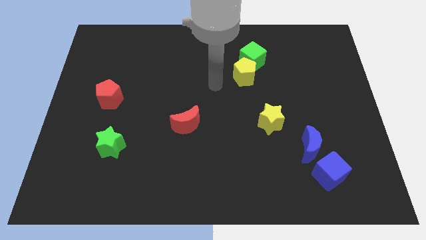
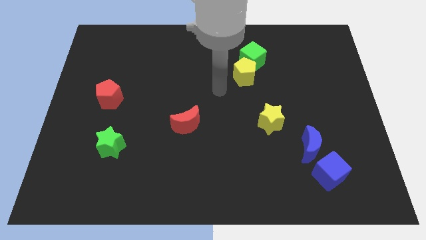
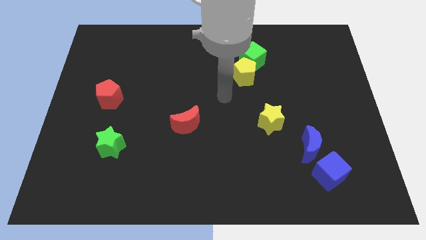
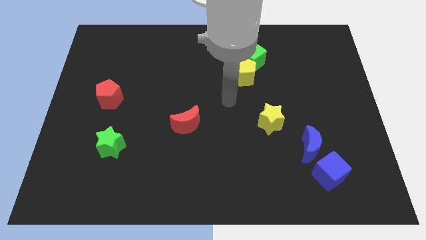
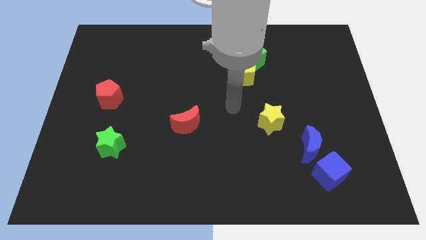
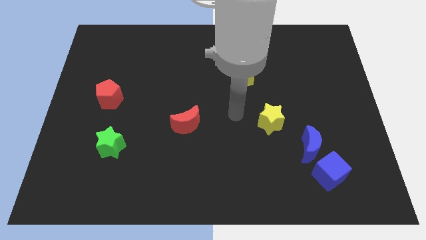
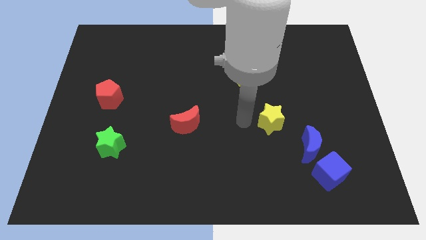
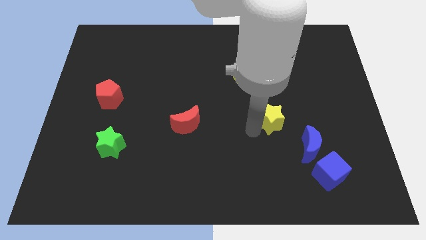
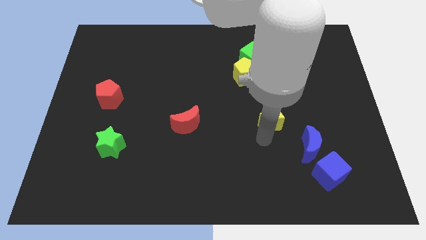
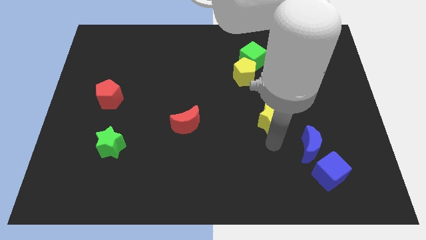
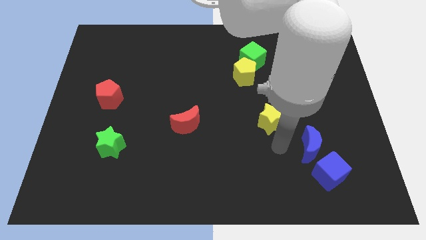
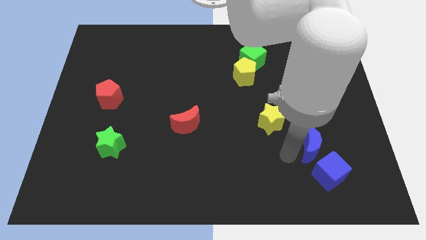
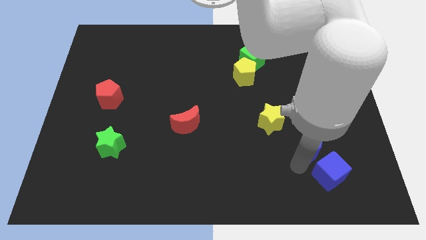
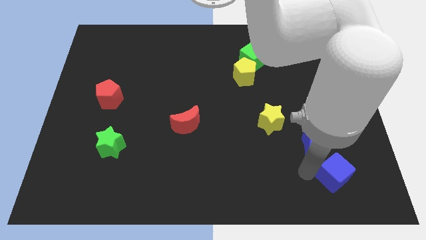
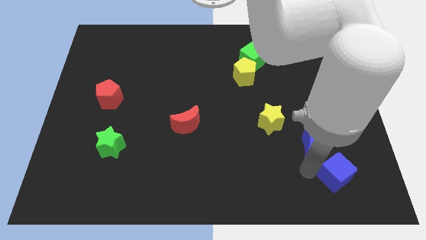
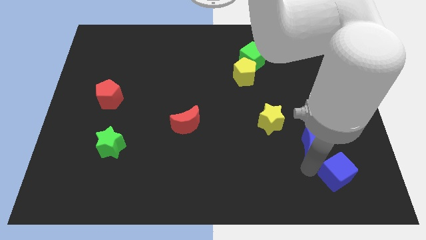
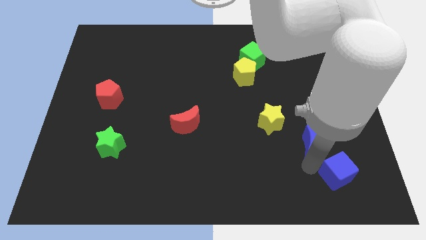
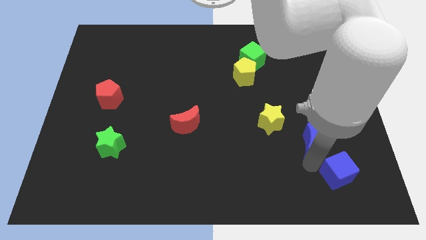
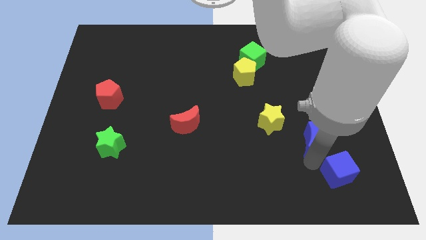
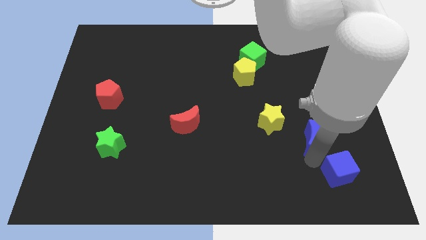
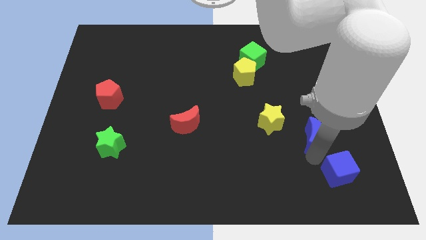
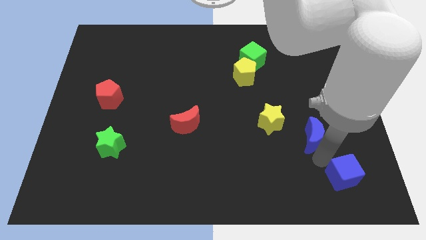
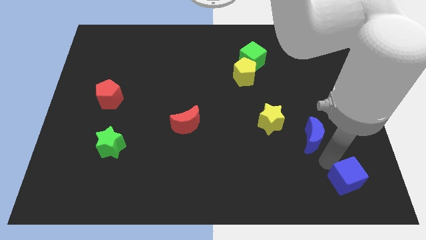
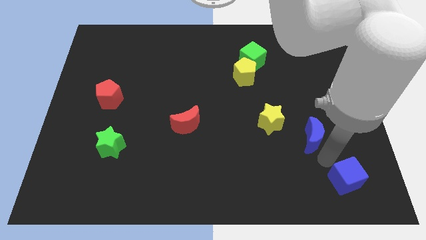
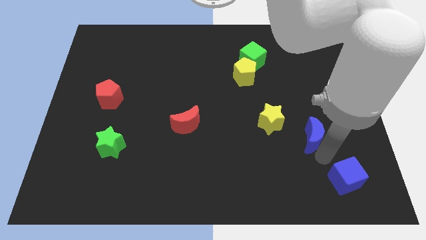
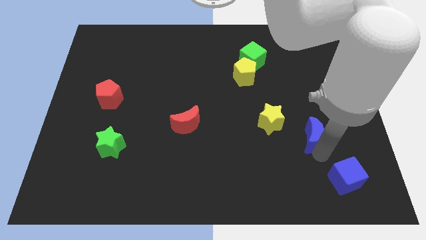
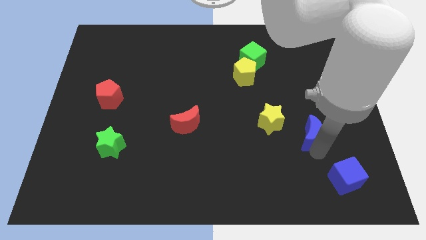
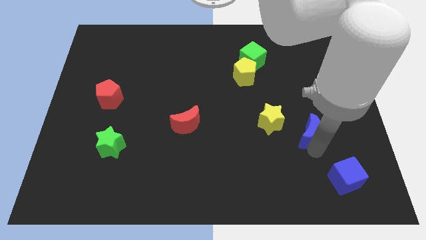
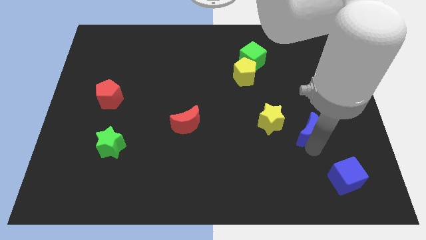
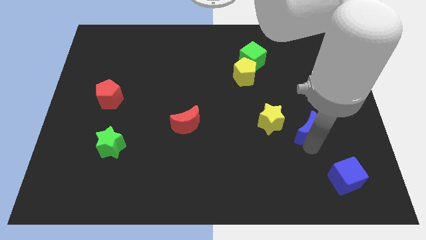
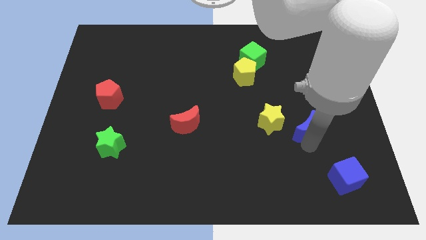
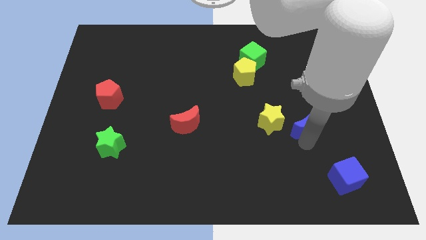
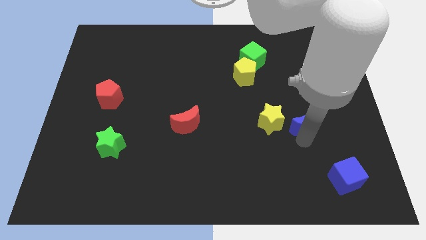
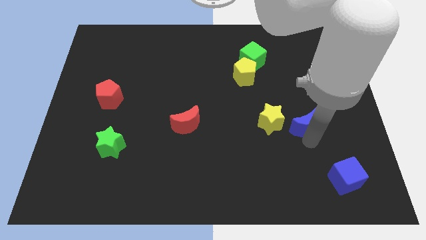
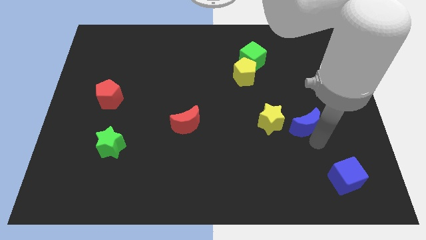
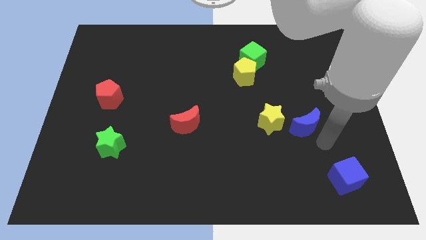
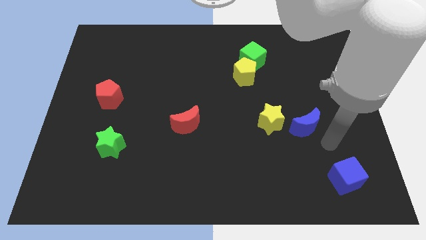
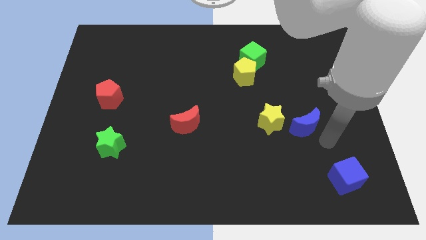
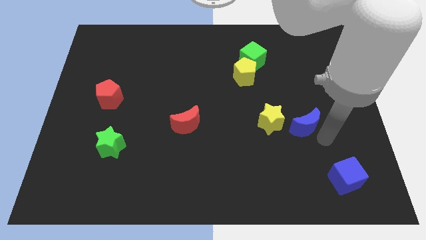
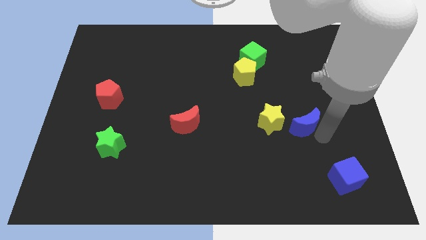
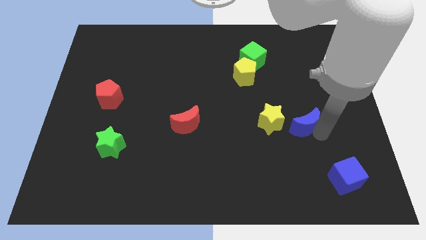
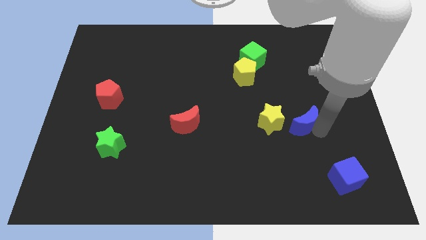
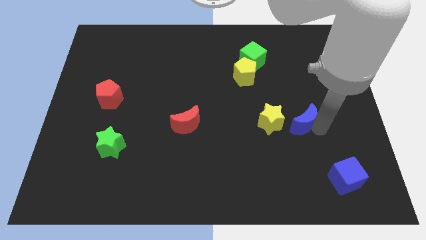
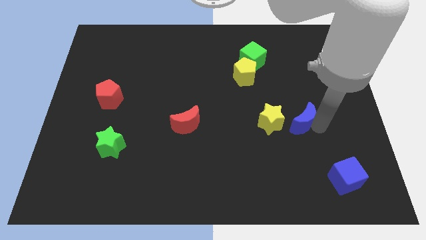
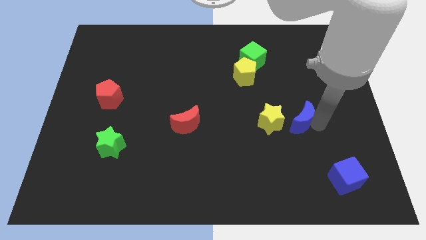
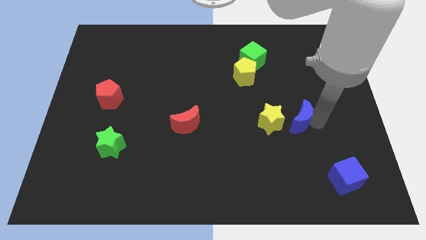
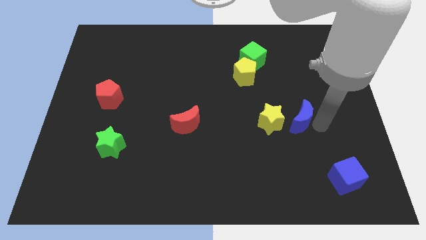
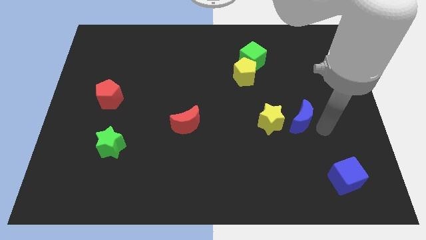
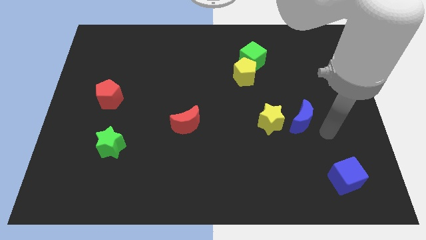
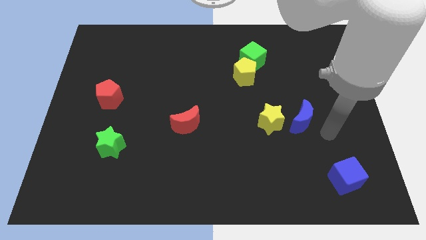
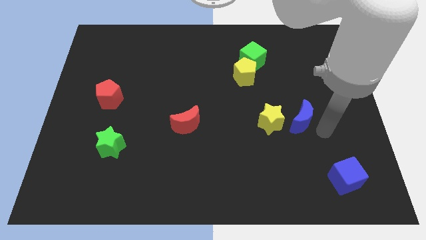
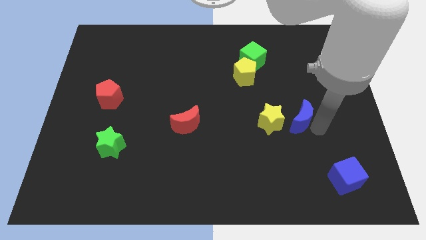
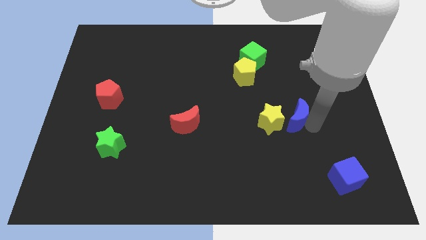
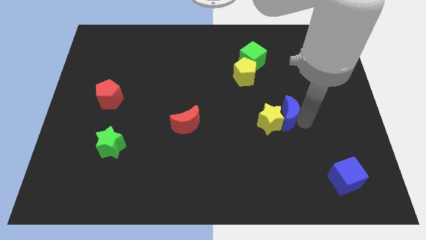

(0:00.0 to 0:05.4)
push the blue moon slightly diagonally up and to the left

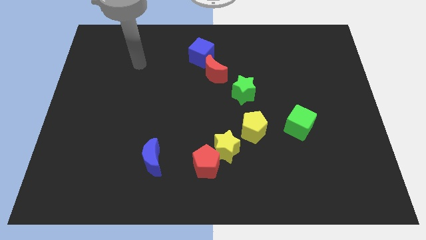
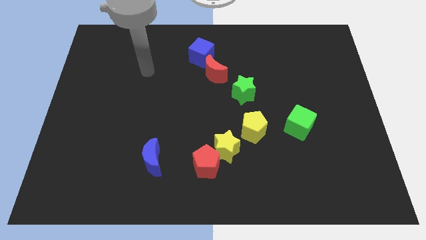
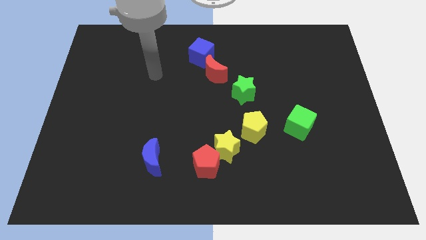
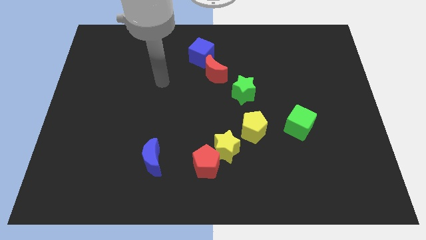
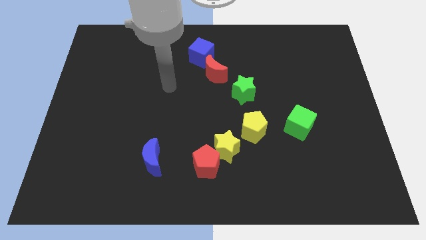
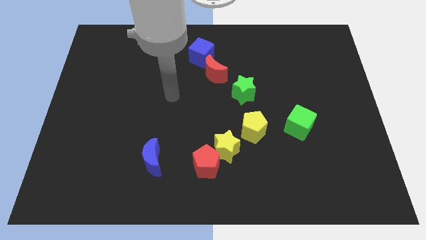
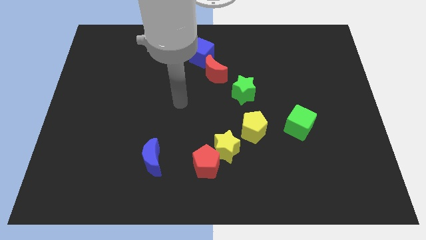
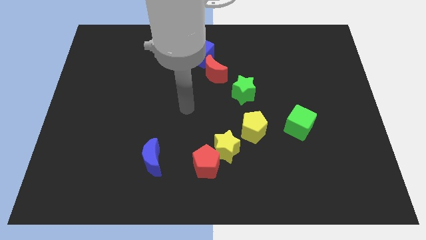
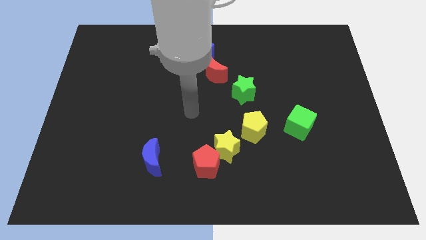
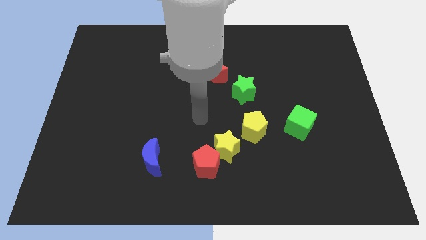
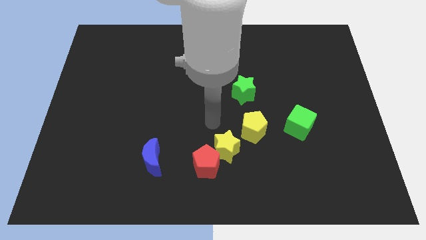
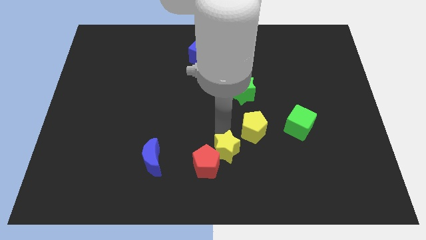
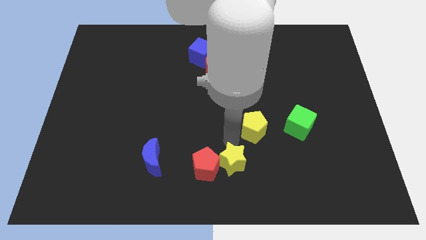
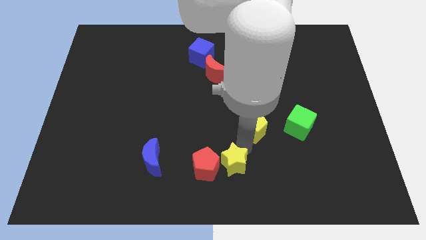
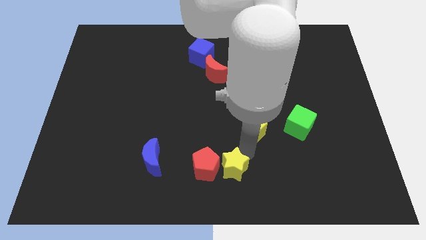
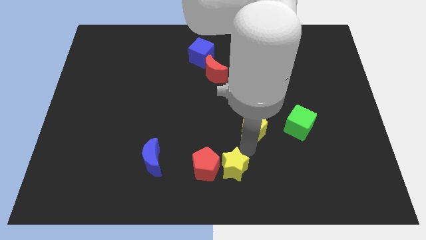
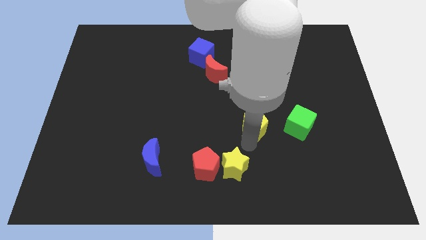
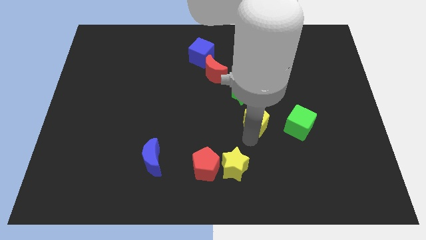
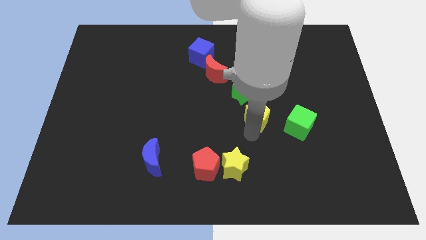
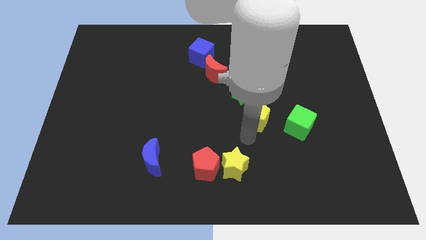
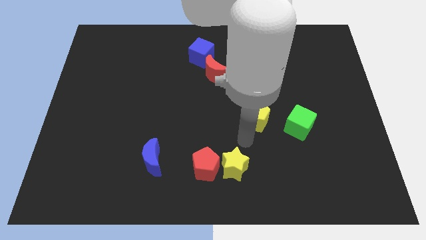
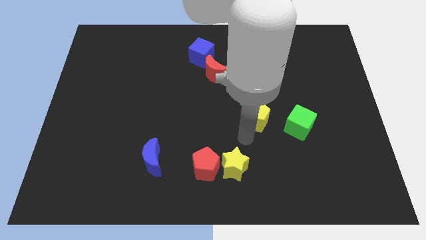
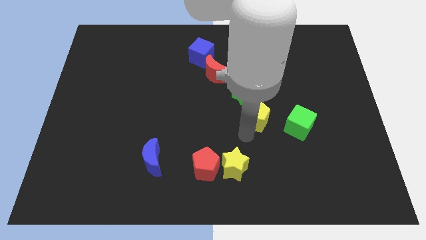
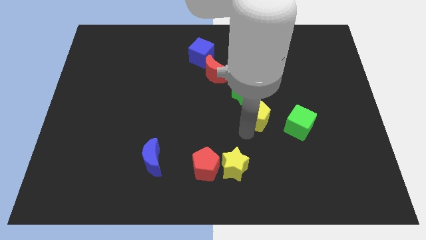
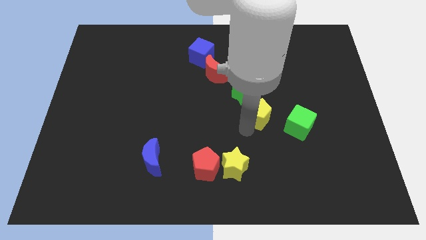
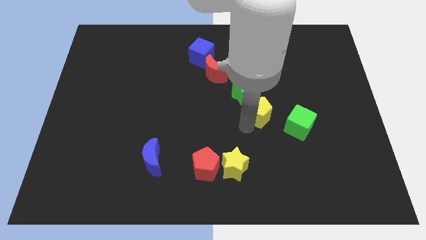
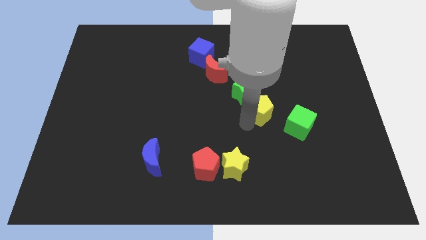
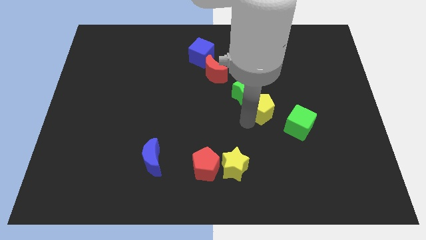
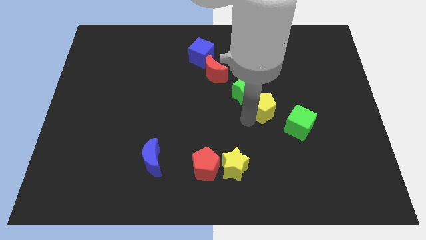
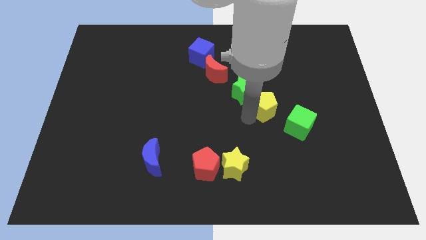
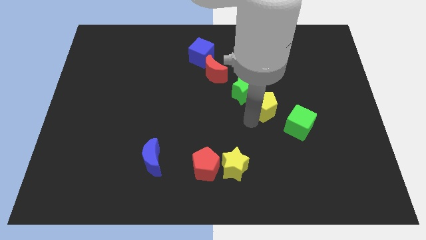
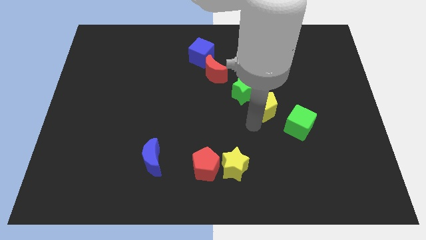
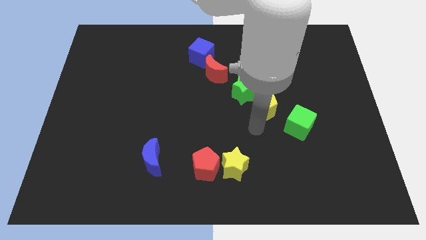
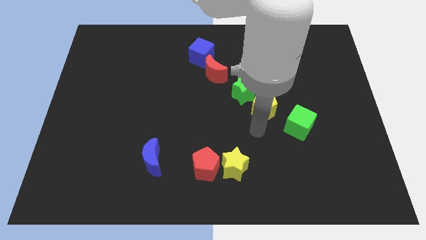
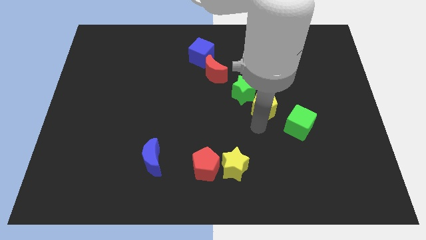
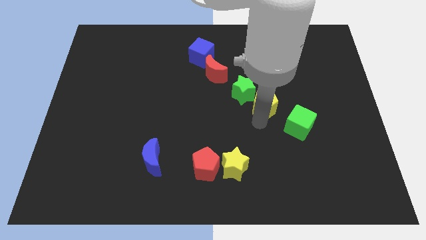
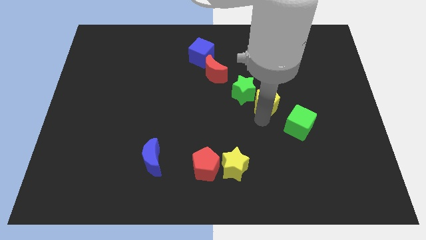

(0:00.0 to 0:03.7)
slightly push the yellow pentagon up
